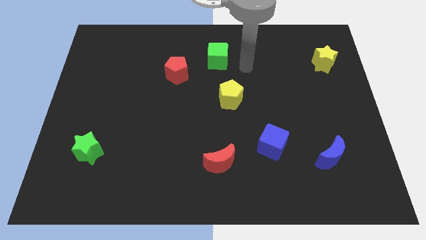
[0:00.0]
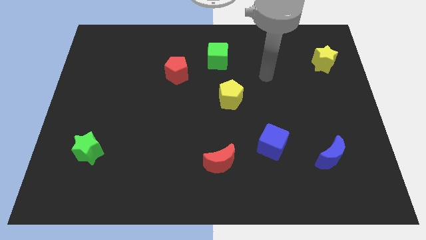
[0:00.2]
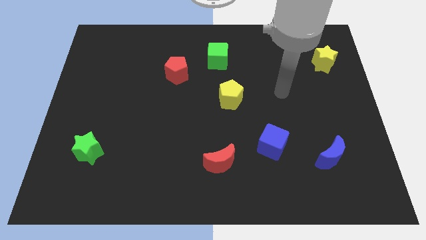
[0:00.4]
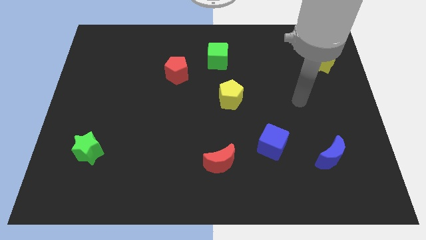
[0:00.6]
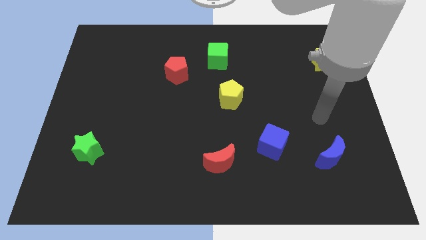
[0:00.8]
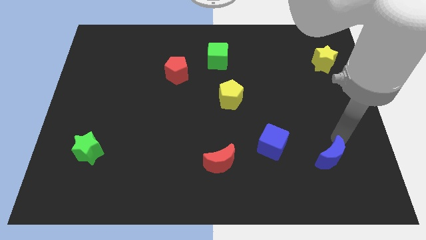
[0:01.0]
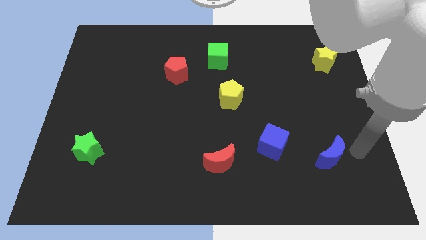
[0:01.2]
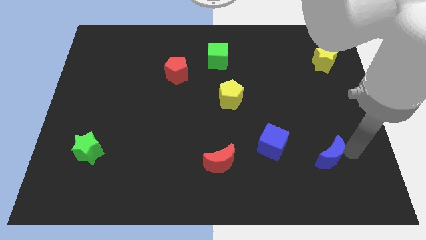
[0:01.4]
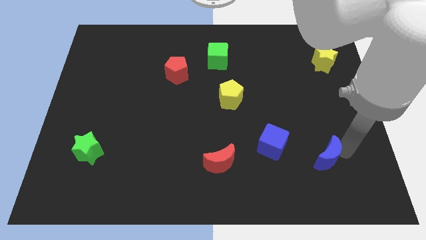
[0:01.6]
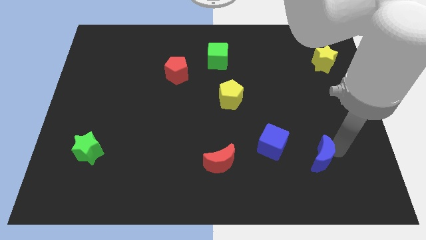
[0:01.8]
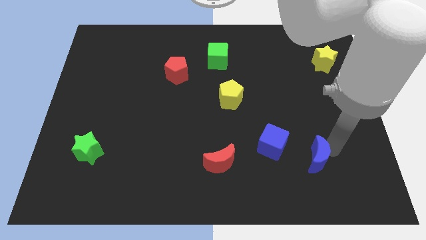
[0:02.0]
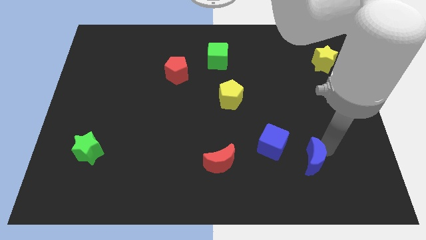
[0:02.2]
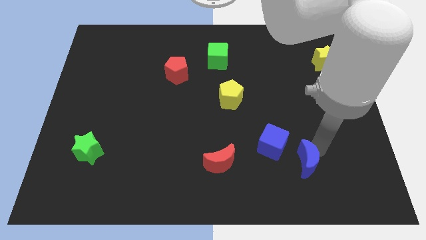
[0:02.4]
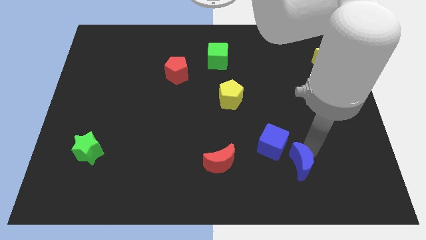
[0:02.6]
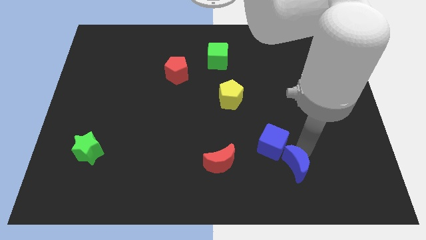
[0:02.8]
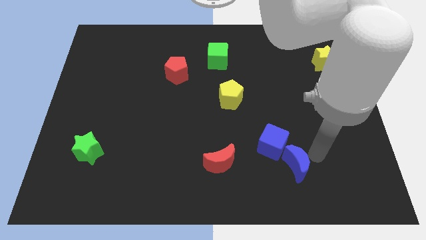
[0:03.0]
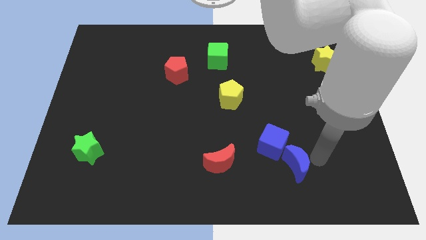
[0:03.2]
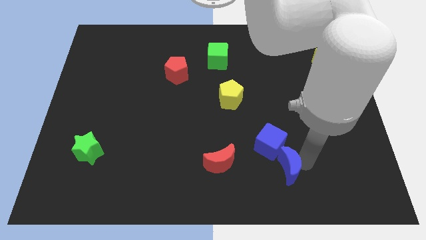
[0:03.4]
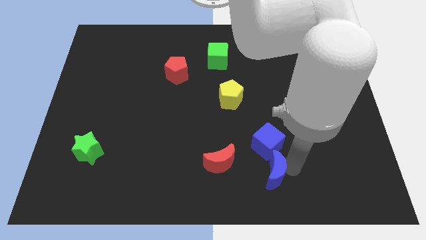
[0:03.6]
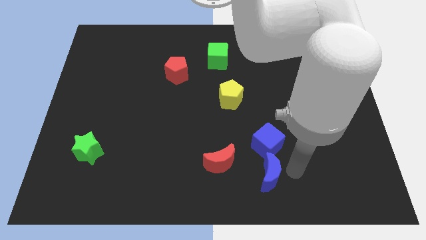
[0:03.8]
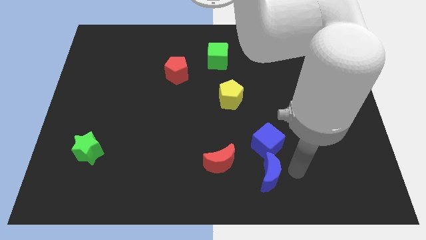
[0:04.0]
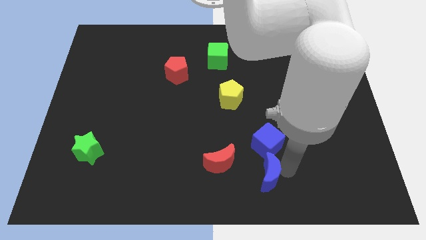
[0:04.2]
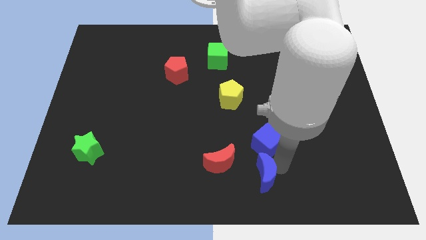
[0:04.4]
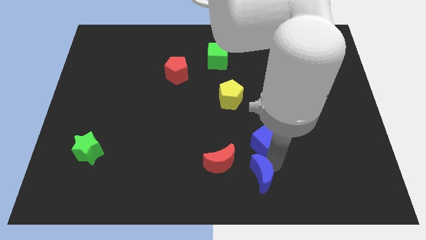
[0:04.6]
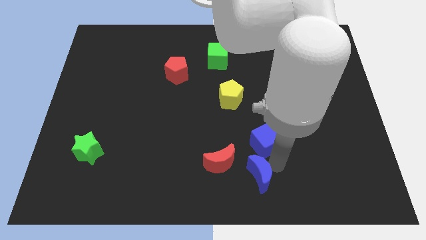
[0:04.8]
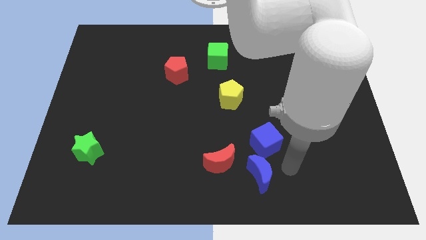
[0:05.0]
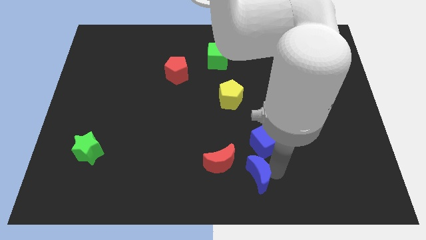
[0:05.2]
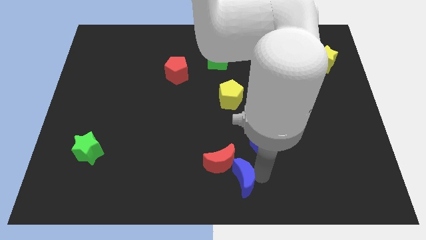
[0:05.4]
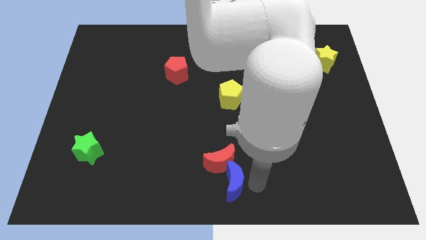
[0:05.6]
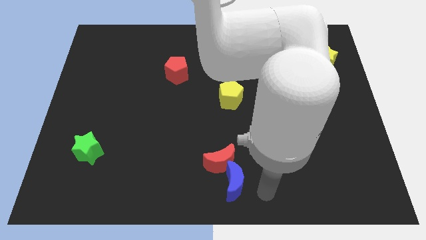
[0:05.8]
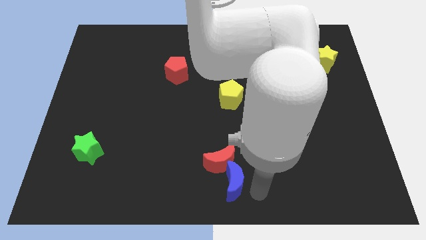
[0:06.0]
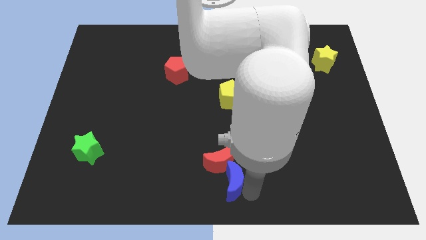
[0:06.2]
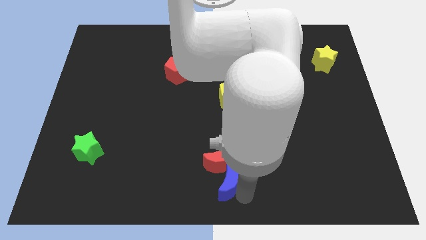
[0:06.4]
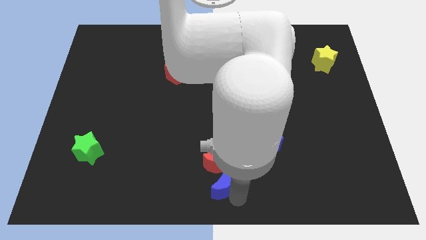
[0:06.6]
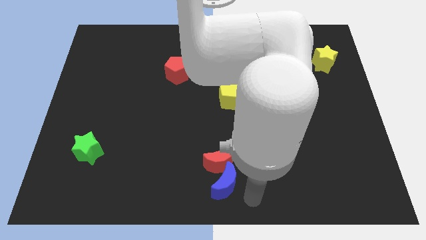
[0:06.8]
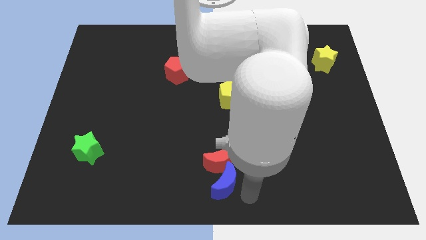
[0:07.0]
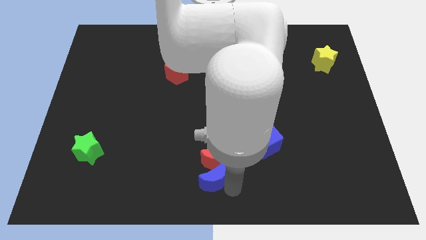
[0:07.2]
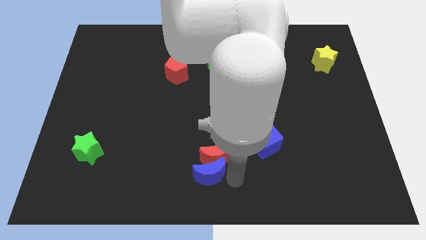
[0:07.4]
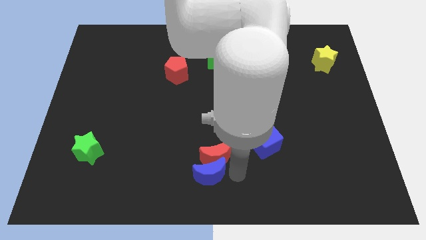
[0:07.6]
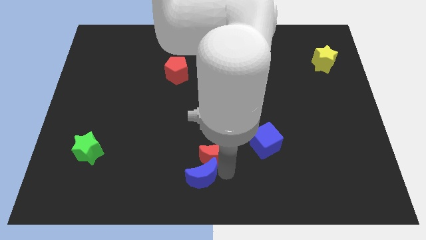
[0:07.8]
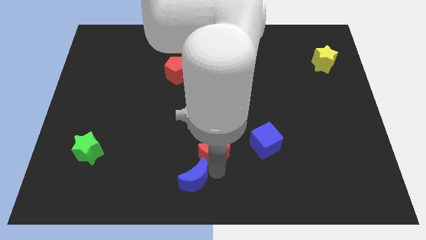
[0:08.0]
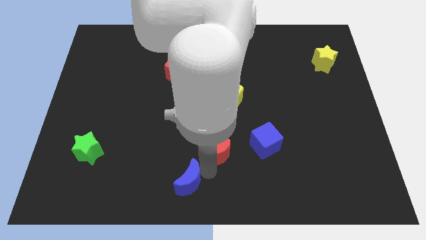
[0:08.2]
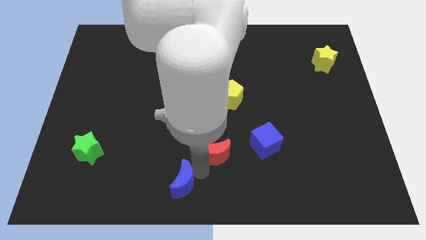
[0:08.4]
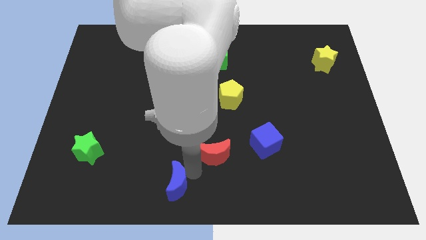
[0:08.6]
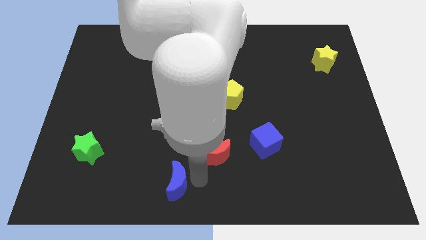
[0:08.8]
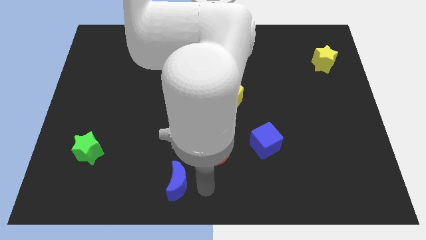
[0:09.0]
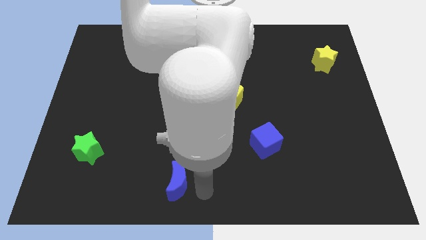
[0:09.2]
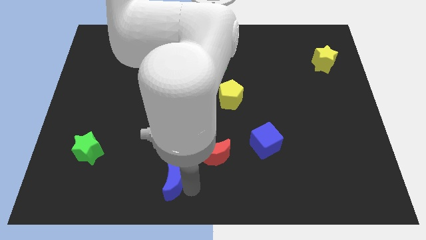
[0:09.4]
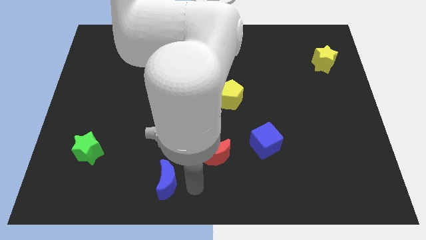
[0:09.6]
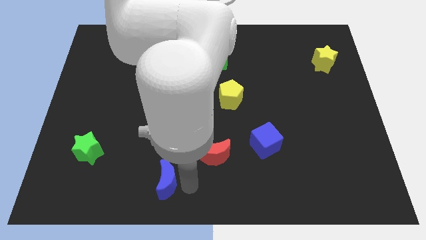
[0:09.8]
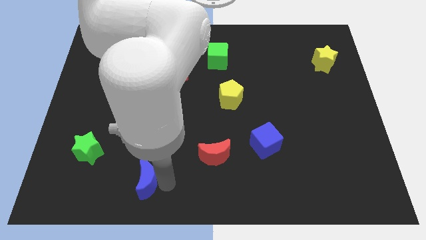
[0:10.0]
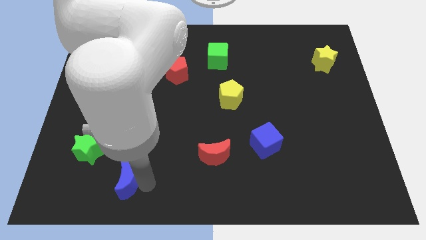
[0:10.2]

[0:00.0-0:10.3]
put the blue moon to the bottom right side of the green star
